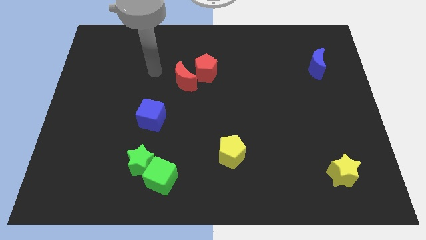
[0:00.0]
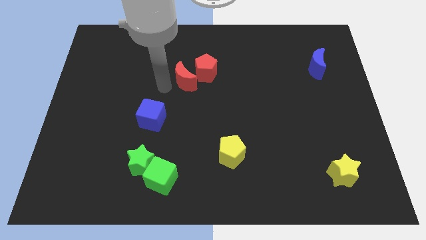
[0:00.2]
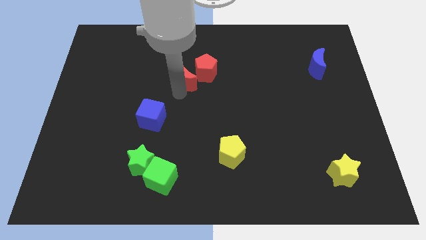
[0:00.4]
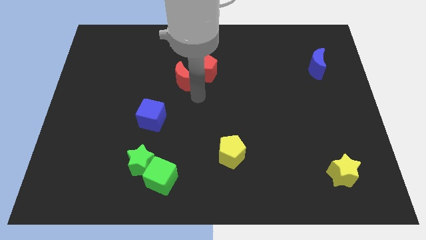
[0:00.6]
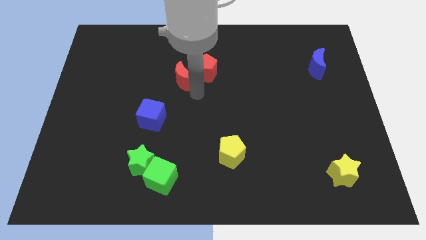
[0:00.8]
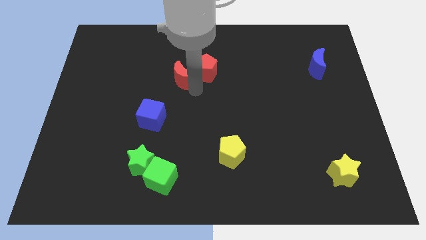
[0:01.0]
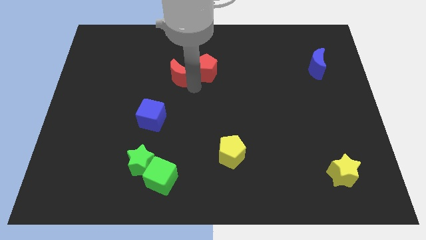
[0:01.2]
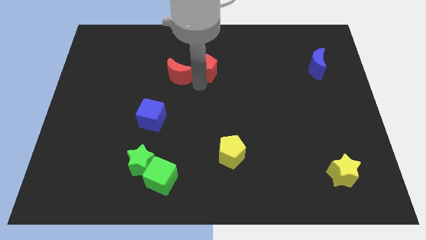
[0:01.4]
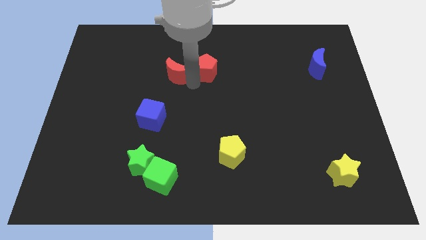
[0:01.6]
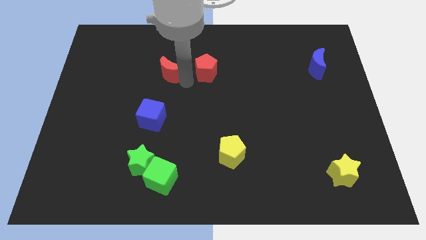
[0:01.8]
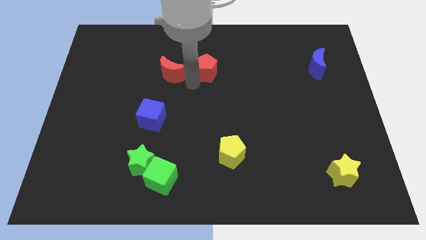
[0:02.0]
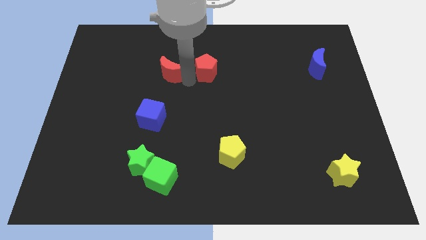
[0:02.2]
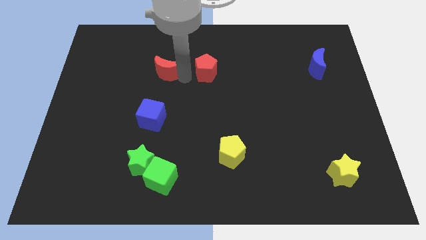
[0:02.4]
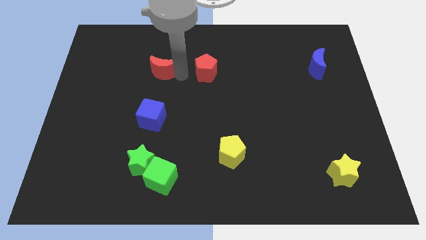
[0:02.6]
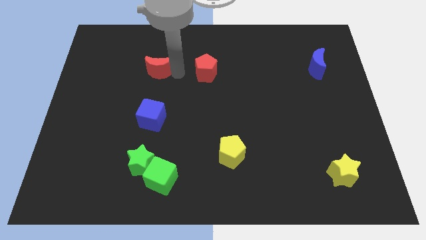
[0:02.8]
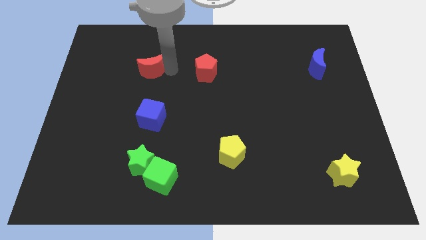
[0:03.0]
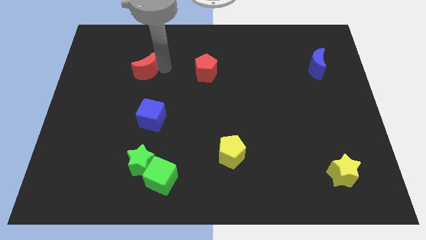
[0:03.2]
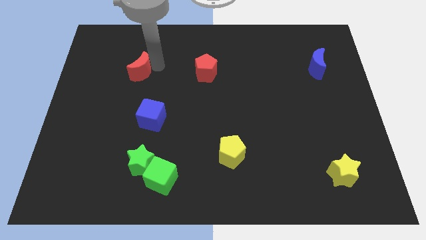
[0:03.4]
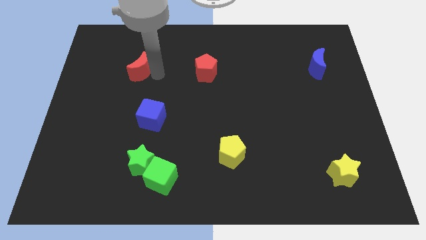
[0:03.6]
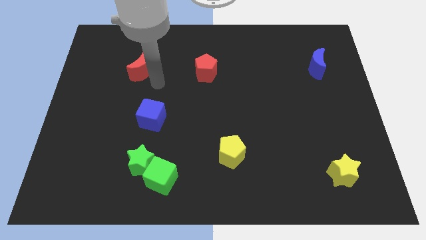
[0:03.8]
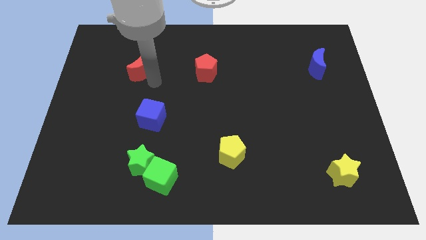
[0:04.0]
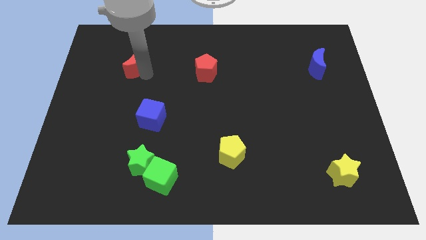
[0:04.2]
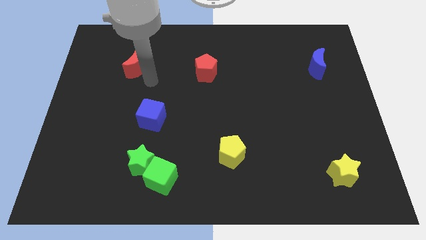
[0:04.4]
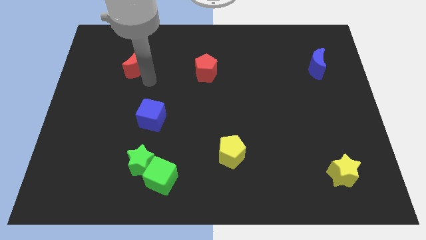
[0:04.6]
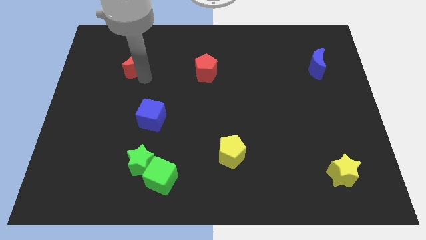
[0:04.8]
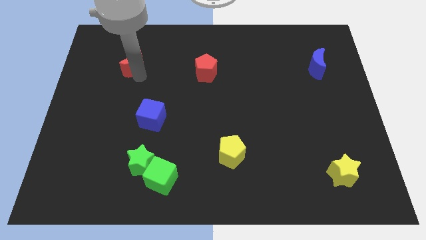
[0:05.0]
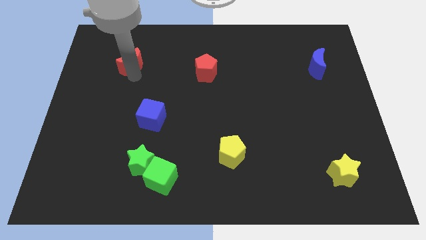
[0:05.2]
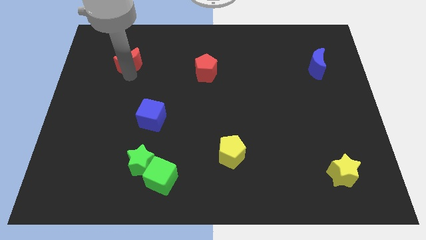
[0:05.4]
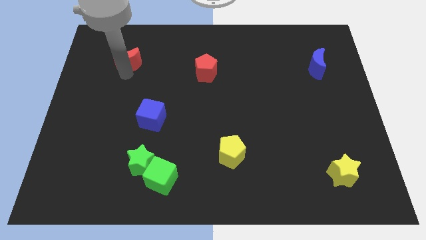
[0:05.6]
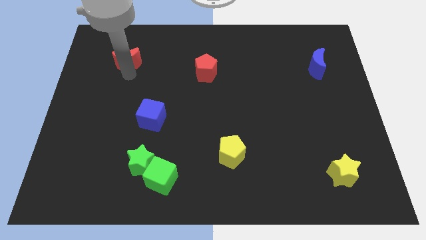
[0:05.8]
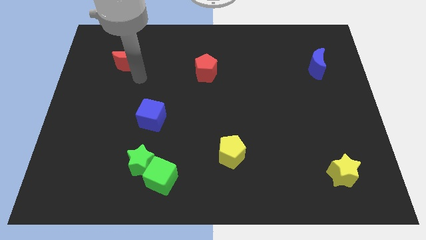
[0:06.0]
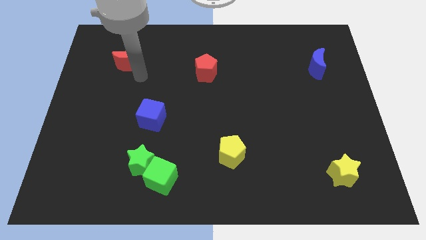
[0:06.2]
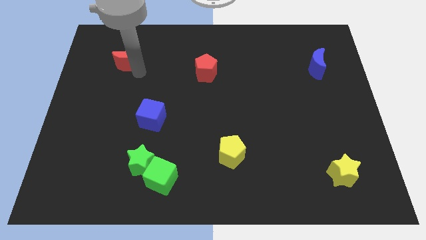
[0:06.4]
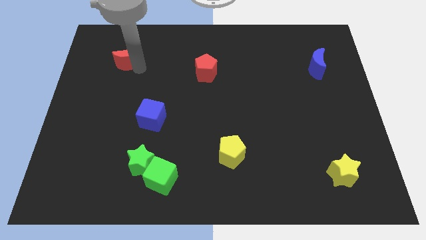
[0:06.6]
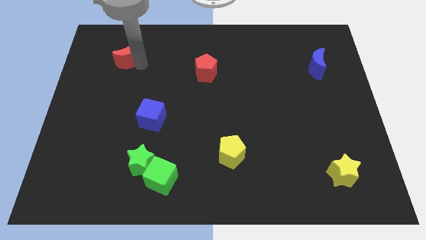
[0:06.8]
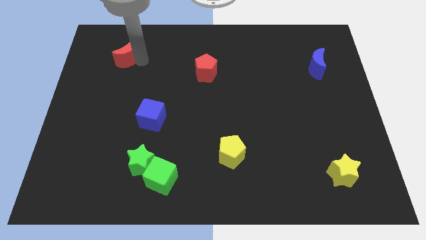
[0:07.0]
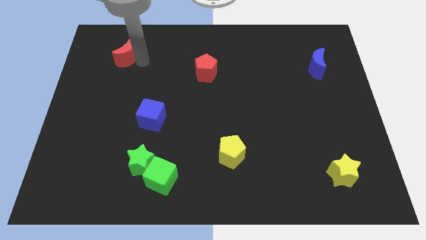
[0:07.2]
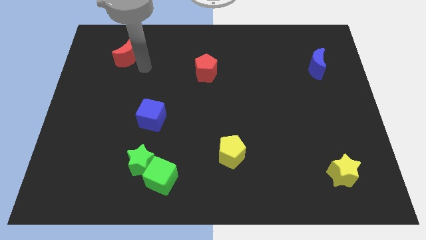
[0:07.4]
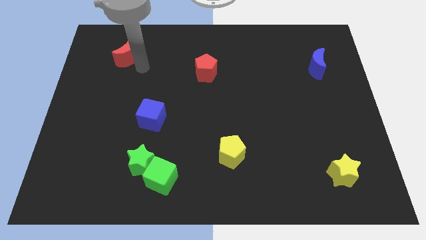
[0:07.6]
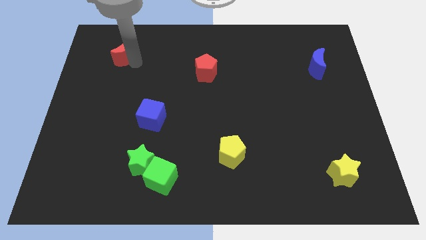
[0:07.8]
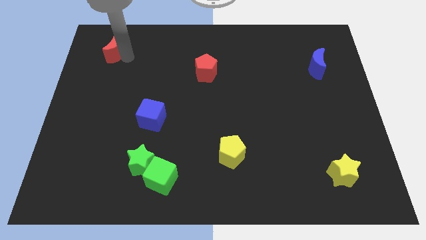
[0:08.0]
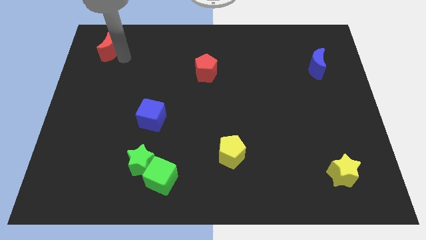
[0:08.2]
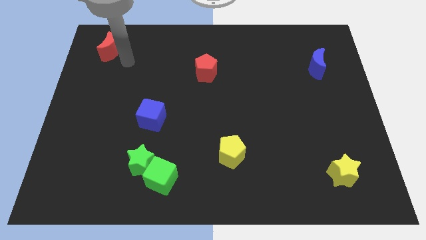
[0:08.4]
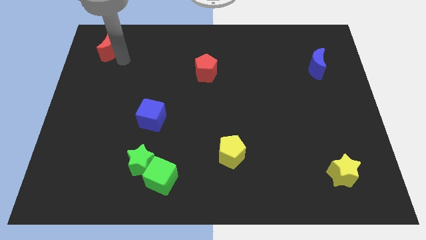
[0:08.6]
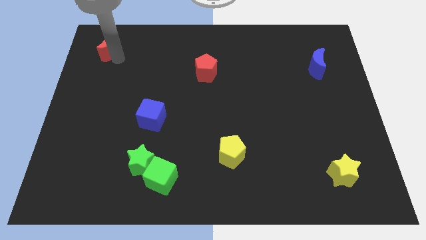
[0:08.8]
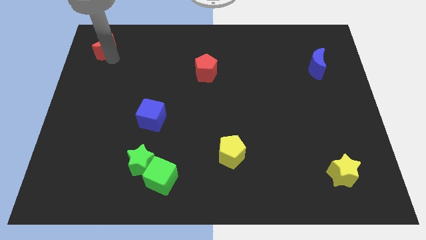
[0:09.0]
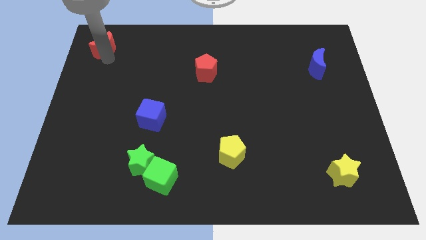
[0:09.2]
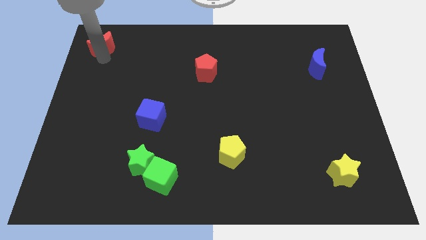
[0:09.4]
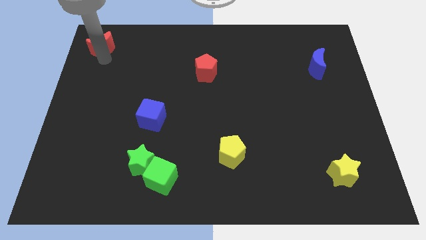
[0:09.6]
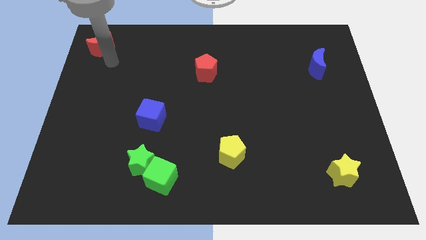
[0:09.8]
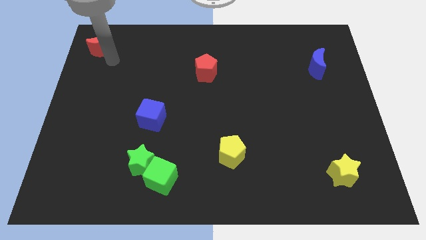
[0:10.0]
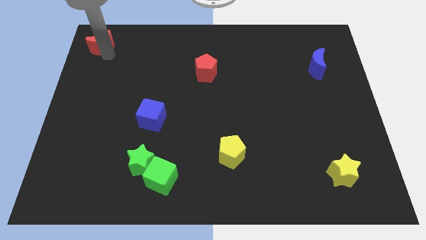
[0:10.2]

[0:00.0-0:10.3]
move the red moon to the upper left corner
